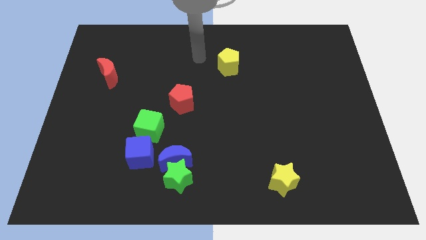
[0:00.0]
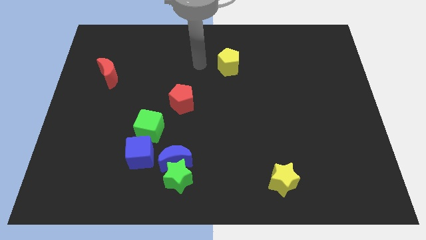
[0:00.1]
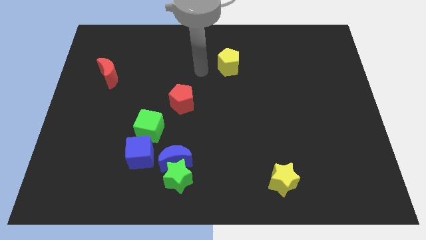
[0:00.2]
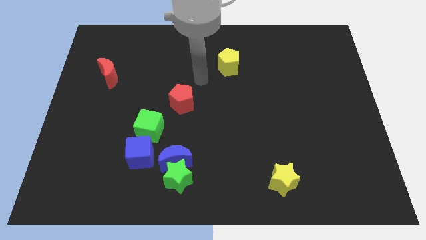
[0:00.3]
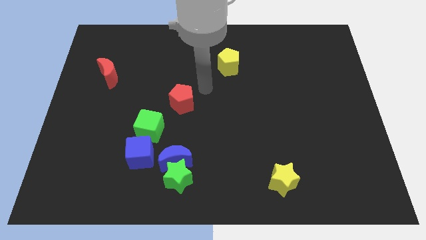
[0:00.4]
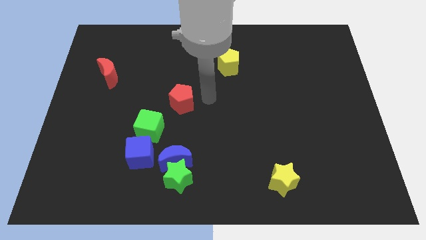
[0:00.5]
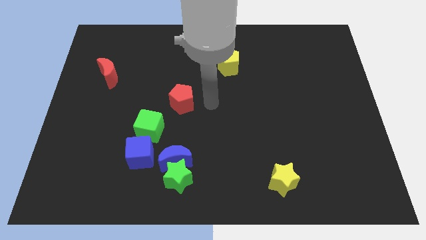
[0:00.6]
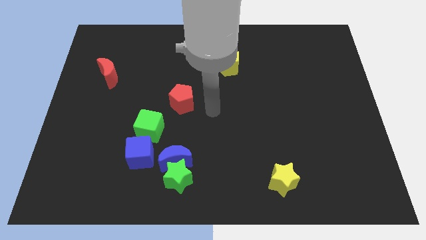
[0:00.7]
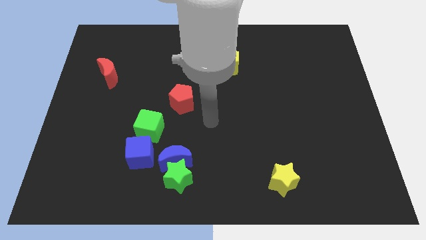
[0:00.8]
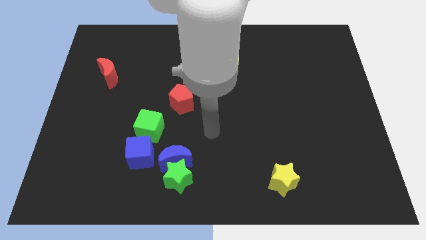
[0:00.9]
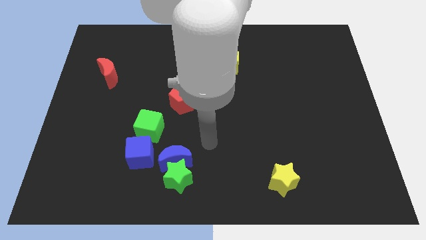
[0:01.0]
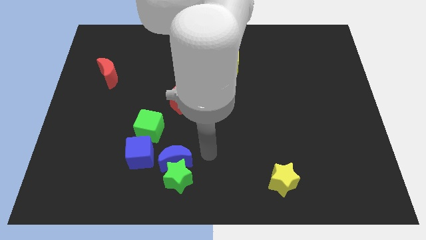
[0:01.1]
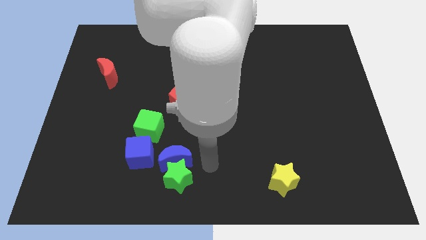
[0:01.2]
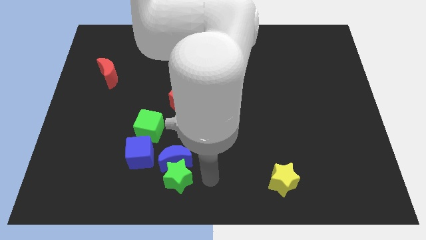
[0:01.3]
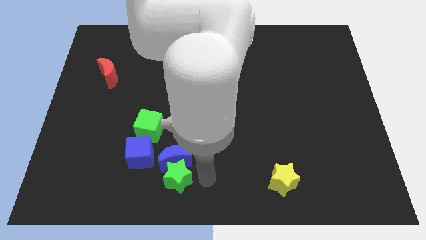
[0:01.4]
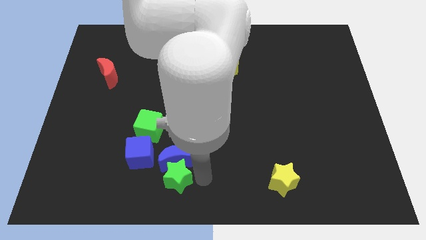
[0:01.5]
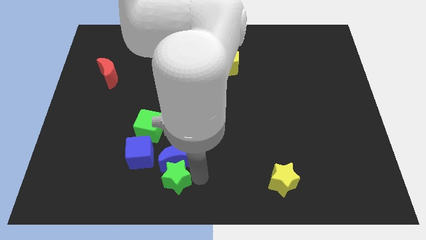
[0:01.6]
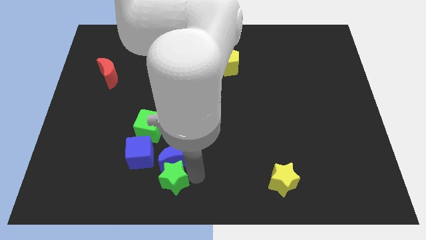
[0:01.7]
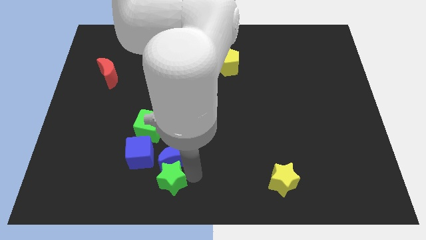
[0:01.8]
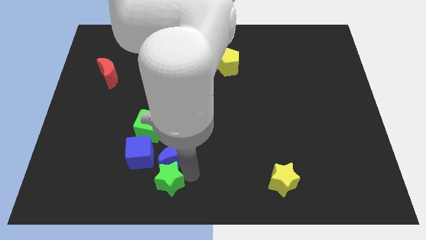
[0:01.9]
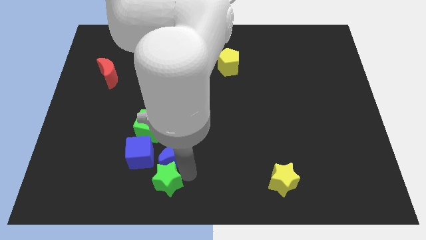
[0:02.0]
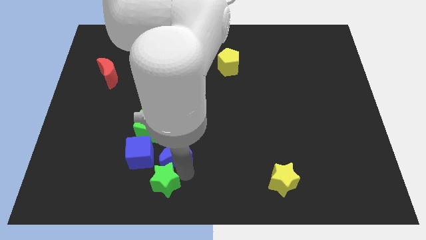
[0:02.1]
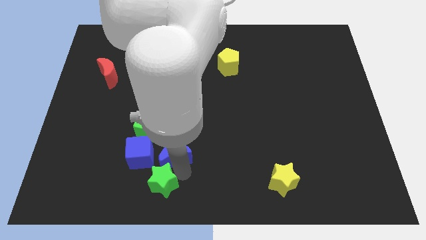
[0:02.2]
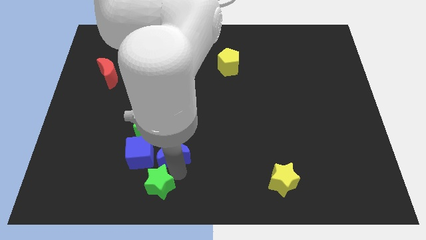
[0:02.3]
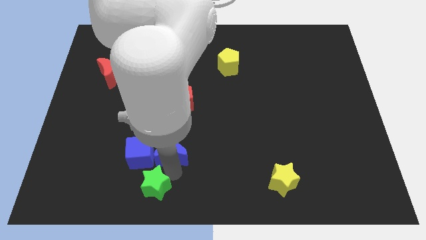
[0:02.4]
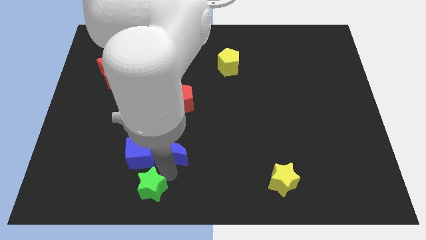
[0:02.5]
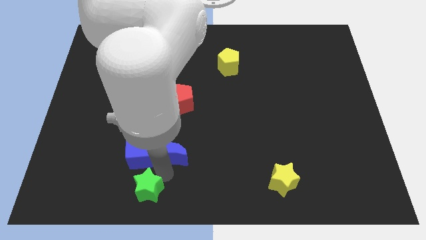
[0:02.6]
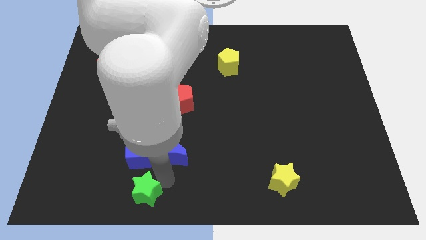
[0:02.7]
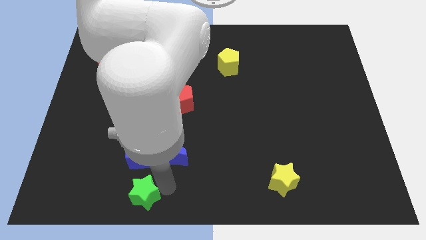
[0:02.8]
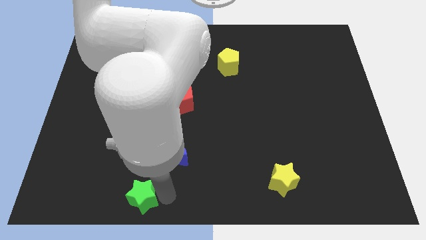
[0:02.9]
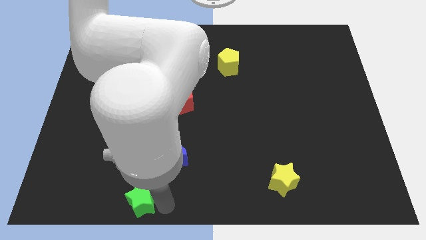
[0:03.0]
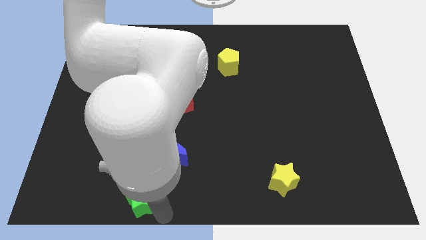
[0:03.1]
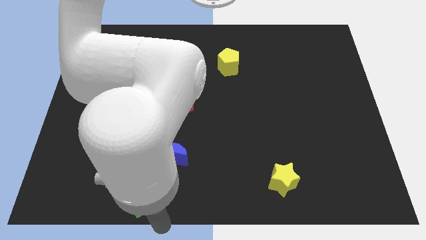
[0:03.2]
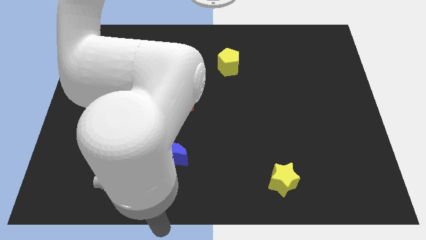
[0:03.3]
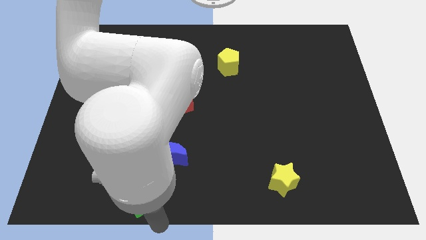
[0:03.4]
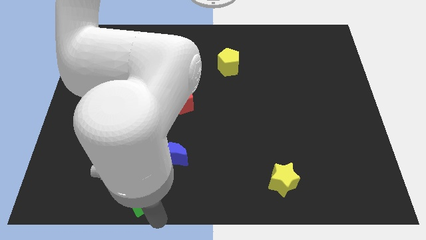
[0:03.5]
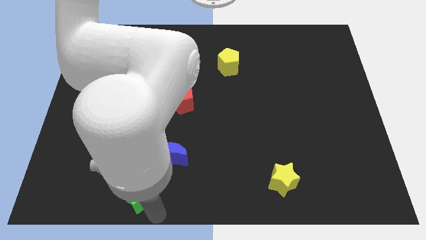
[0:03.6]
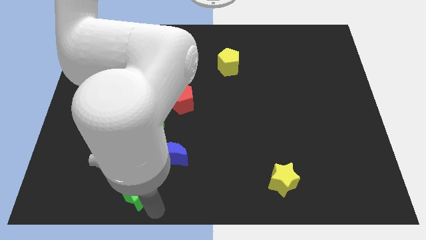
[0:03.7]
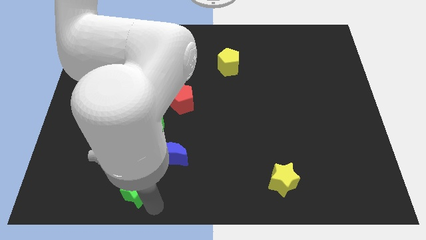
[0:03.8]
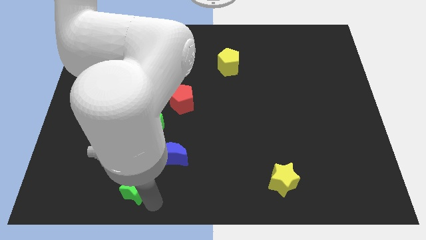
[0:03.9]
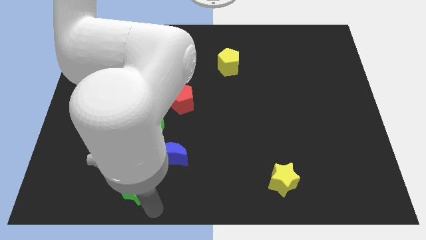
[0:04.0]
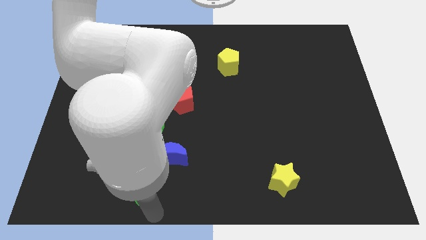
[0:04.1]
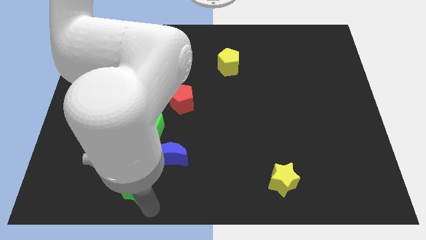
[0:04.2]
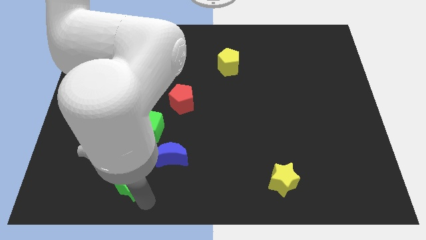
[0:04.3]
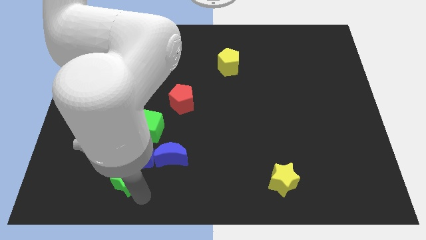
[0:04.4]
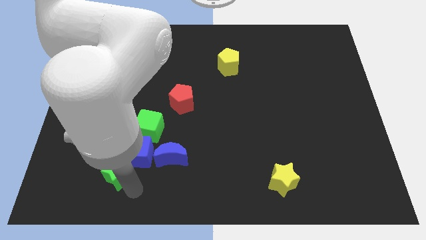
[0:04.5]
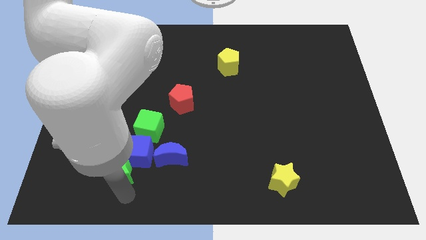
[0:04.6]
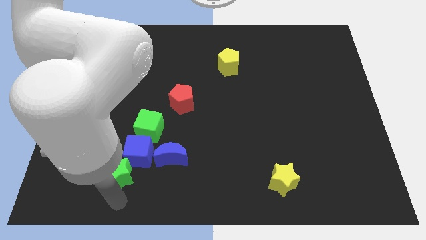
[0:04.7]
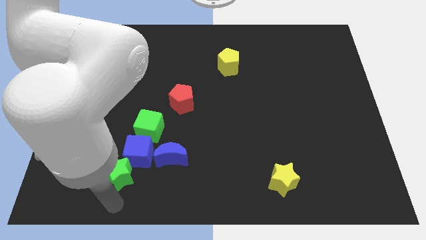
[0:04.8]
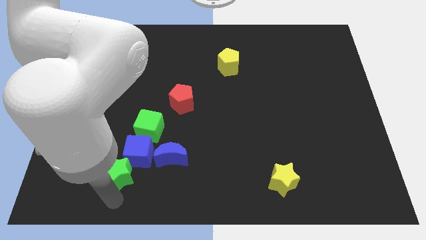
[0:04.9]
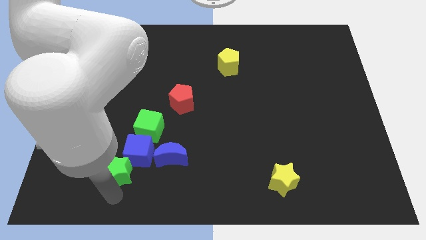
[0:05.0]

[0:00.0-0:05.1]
slide the green star up and then left a little

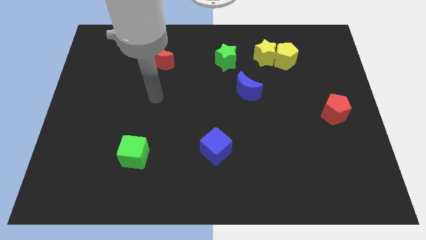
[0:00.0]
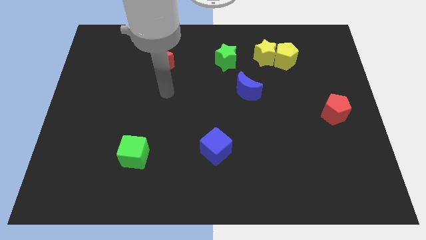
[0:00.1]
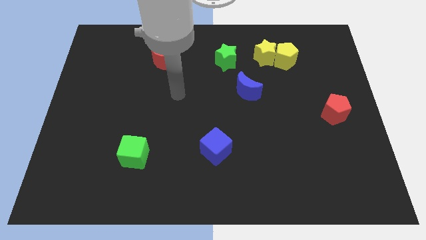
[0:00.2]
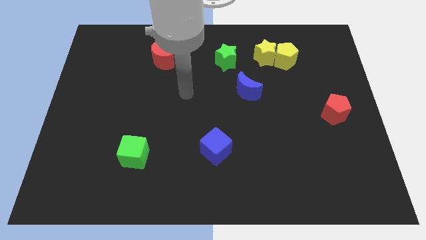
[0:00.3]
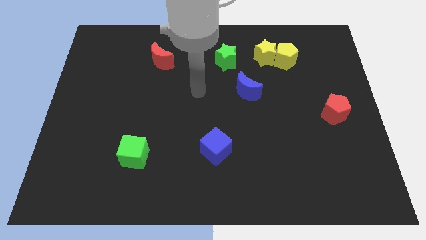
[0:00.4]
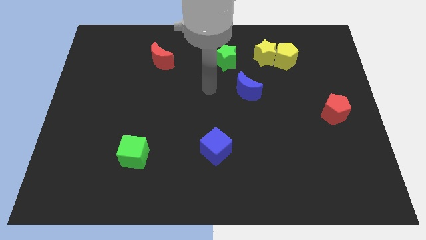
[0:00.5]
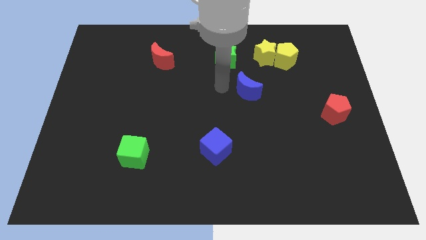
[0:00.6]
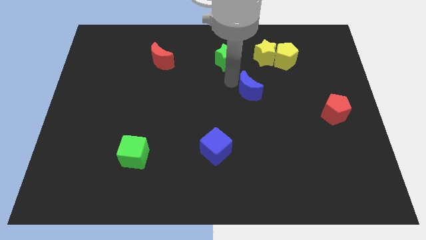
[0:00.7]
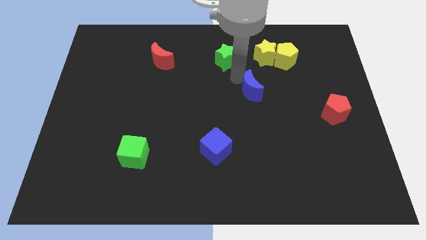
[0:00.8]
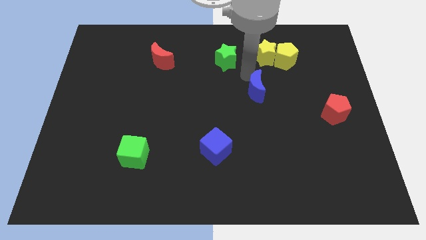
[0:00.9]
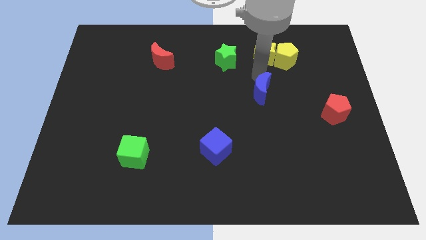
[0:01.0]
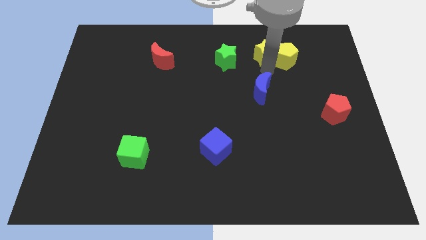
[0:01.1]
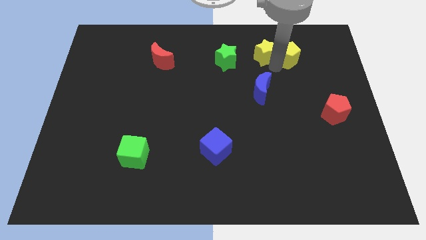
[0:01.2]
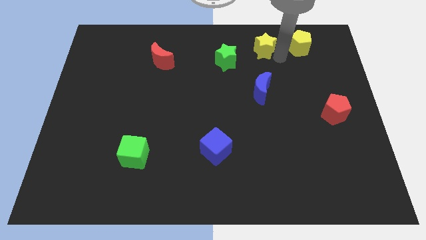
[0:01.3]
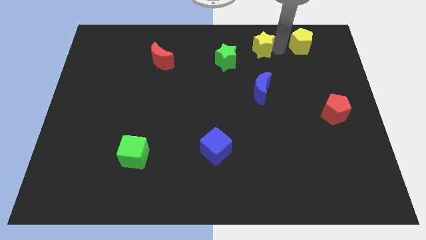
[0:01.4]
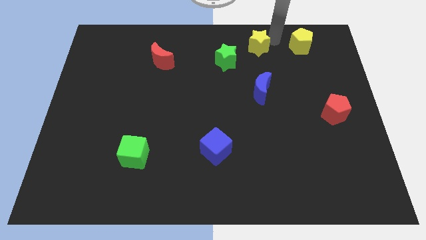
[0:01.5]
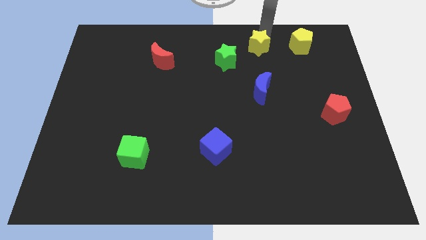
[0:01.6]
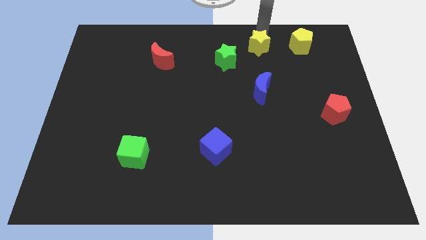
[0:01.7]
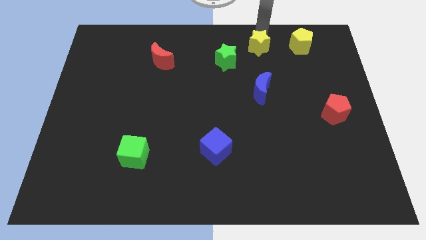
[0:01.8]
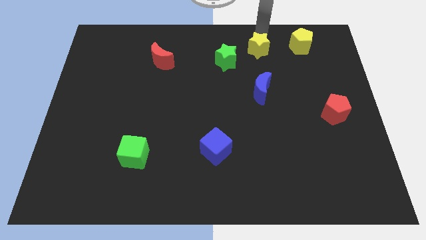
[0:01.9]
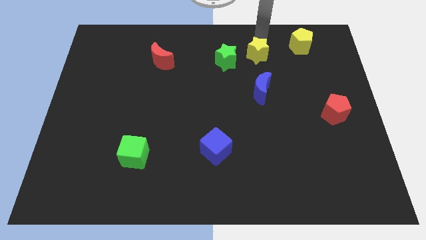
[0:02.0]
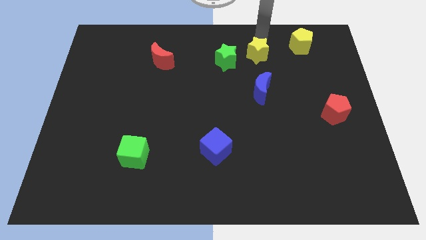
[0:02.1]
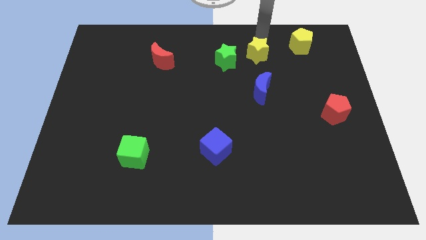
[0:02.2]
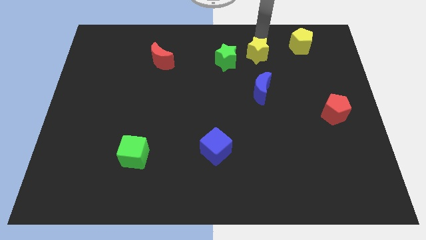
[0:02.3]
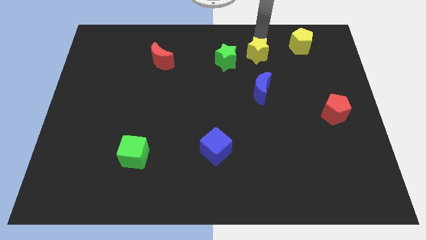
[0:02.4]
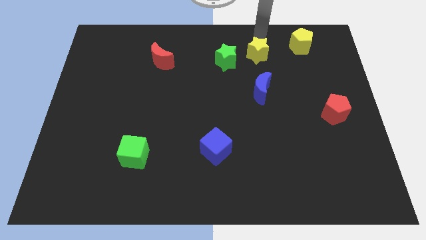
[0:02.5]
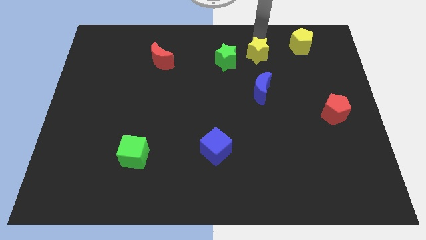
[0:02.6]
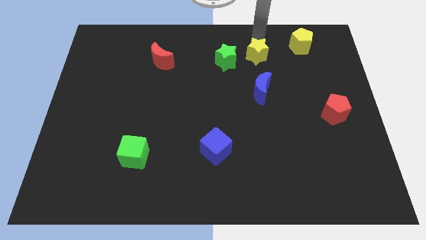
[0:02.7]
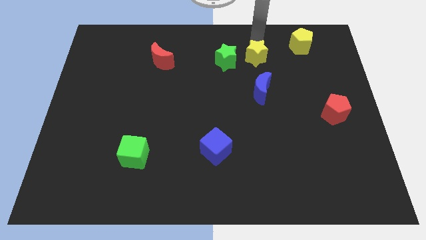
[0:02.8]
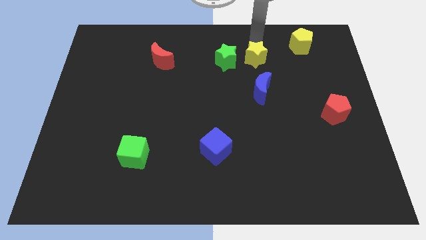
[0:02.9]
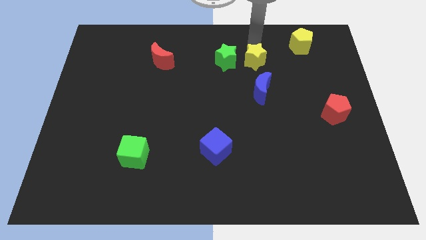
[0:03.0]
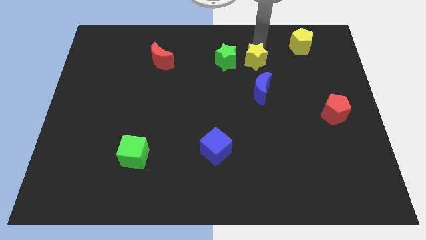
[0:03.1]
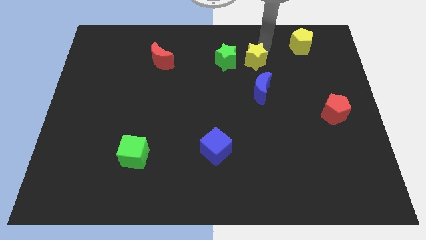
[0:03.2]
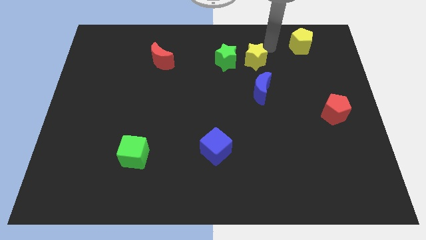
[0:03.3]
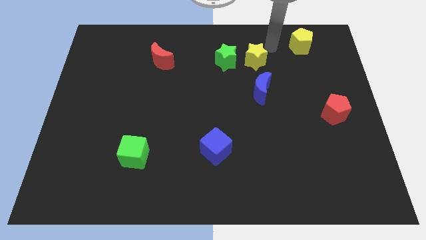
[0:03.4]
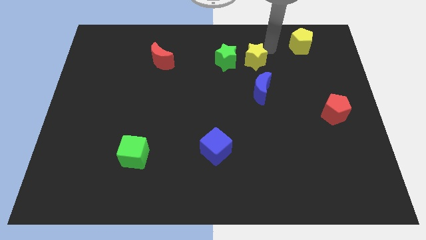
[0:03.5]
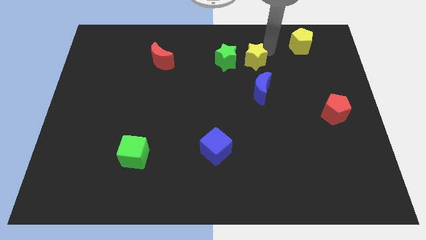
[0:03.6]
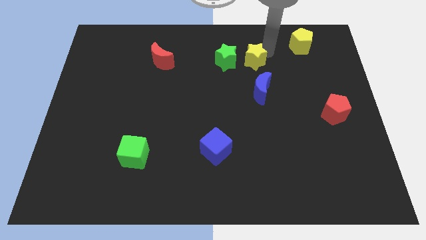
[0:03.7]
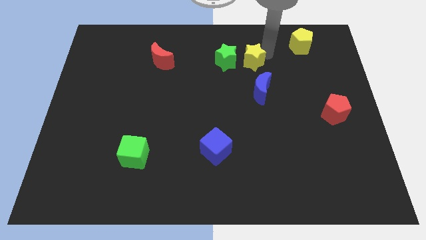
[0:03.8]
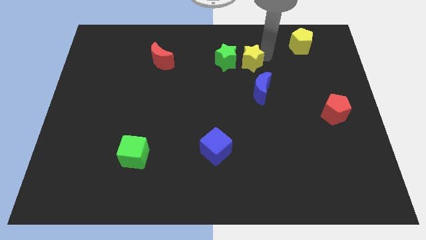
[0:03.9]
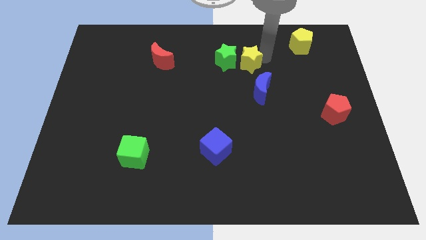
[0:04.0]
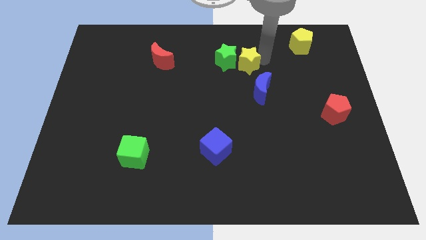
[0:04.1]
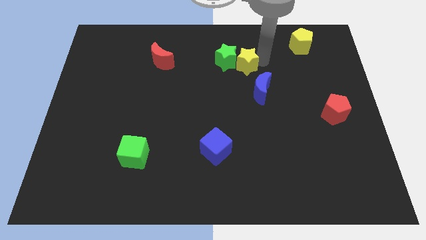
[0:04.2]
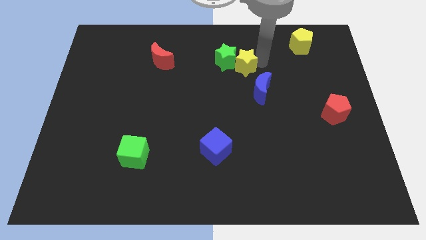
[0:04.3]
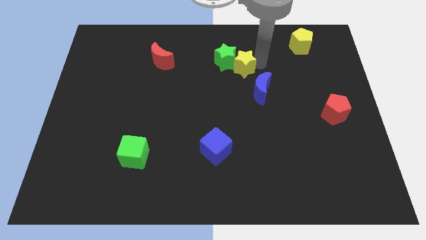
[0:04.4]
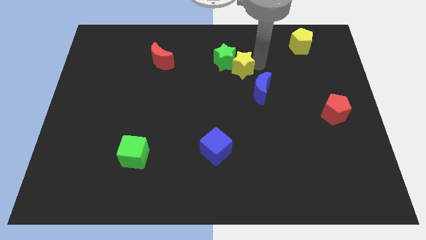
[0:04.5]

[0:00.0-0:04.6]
slightly slide the yellow star down and then left
